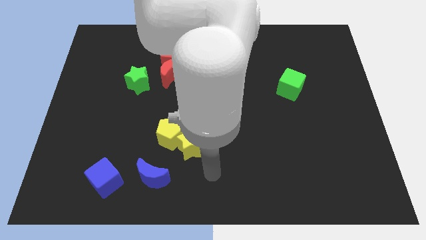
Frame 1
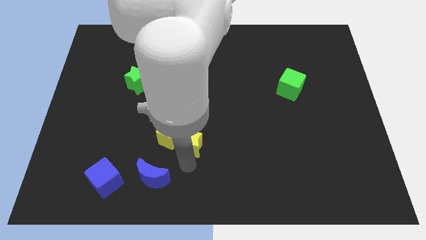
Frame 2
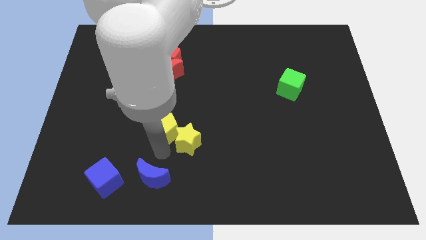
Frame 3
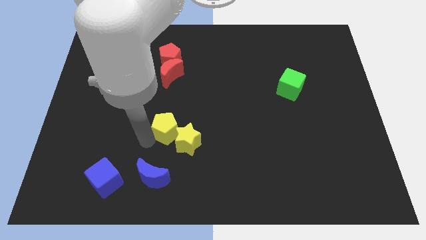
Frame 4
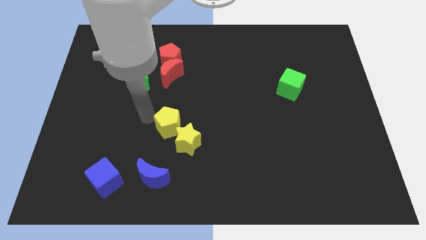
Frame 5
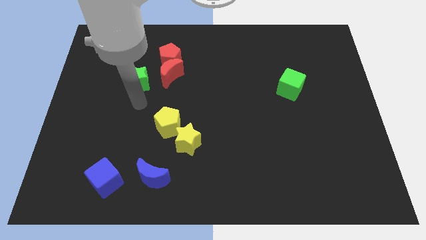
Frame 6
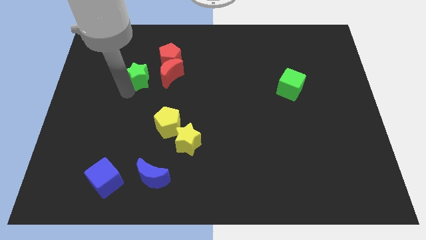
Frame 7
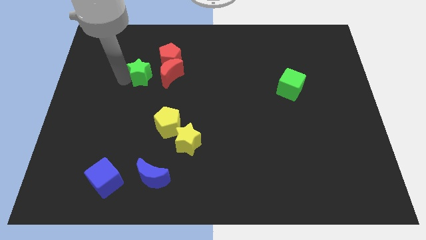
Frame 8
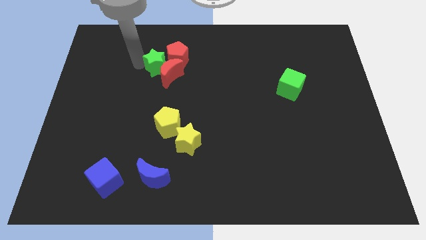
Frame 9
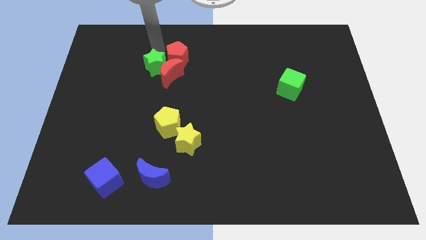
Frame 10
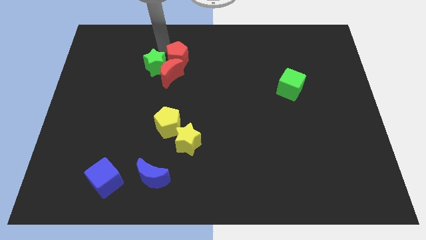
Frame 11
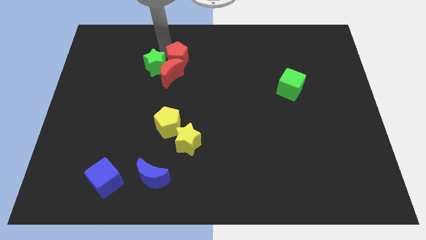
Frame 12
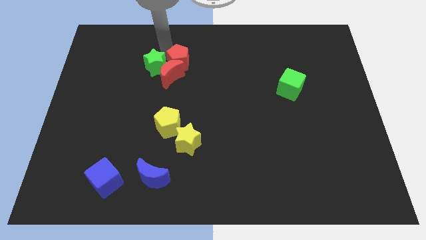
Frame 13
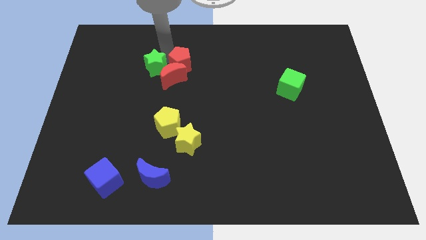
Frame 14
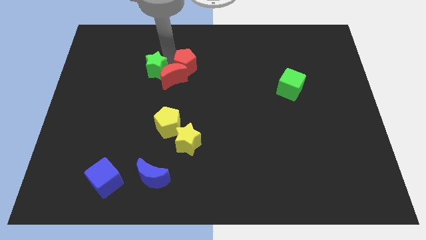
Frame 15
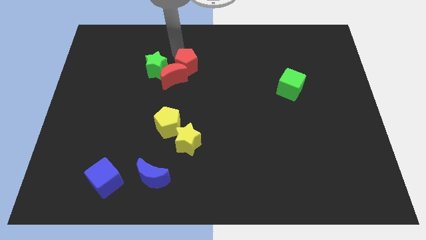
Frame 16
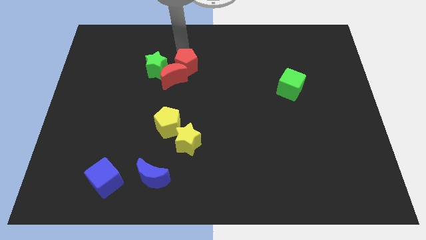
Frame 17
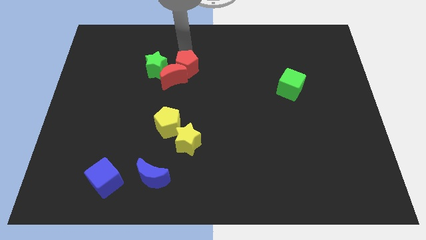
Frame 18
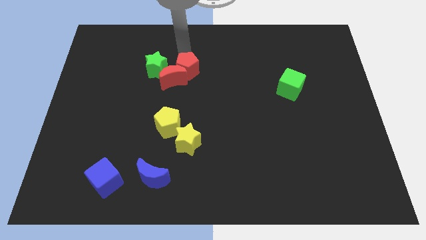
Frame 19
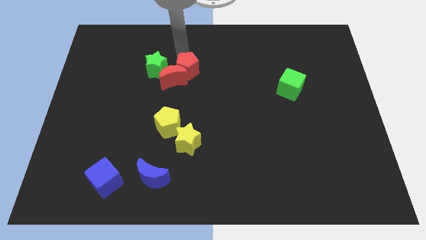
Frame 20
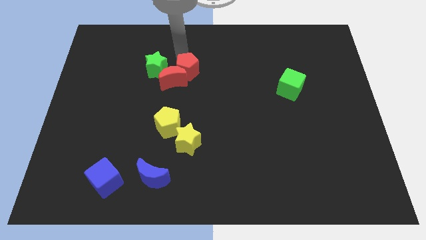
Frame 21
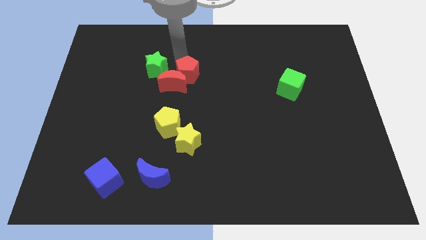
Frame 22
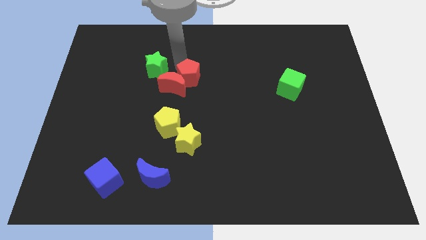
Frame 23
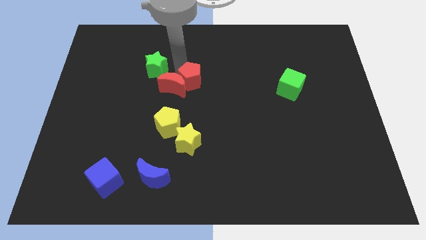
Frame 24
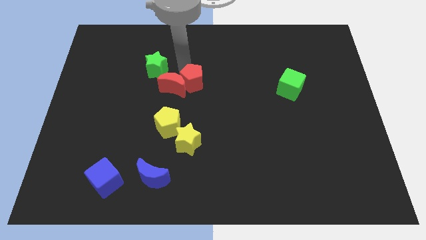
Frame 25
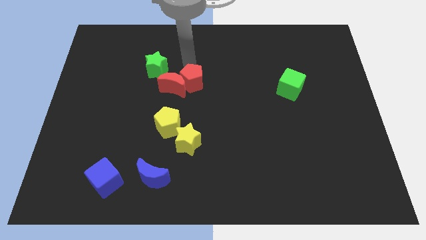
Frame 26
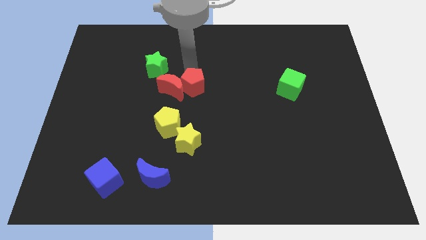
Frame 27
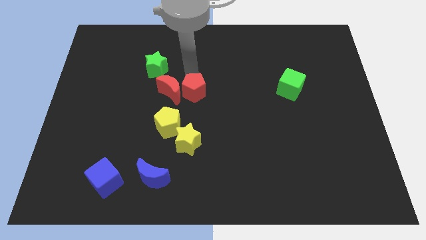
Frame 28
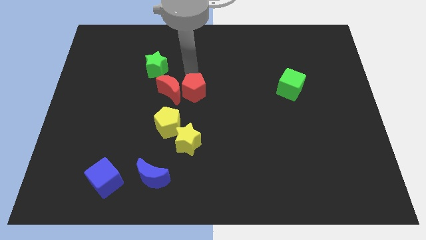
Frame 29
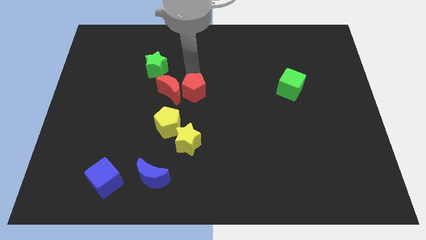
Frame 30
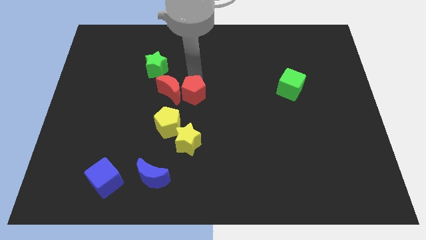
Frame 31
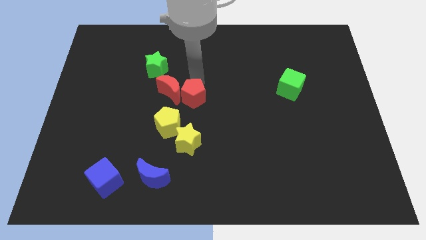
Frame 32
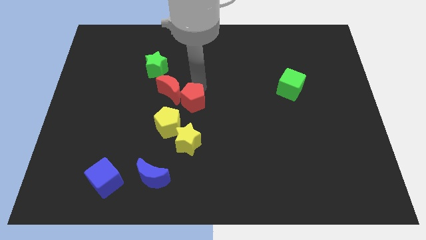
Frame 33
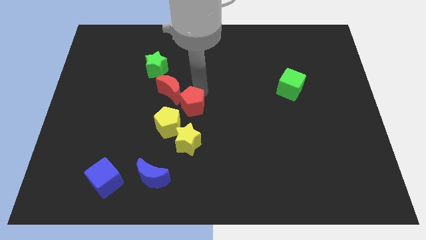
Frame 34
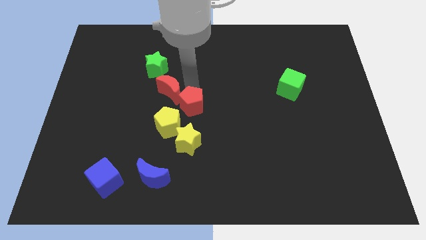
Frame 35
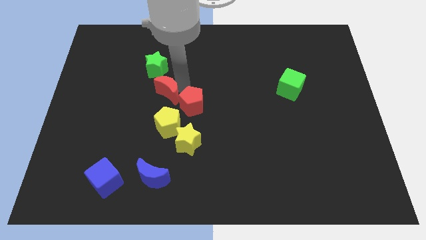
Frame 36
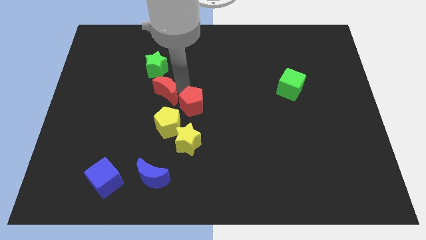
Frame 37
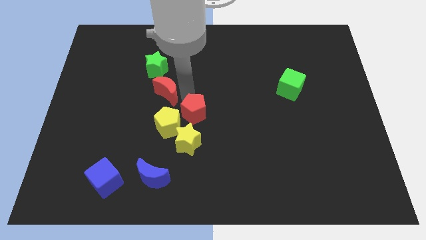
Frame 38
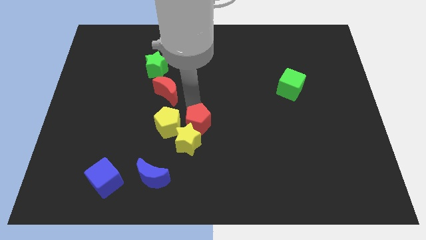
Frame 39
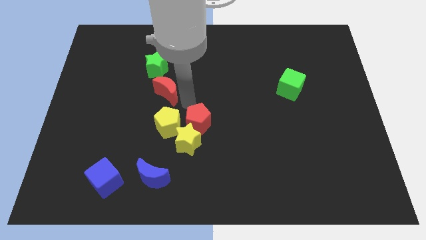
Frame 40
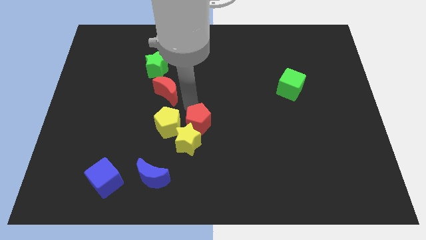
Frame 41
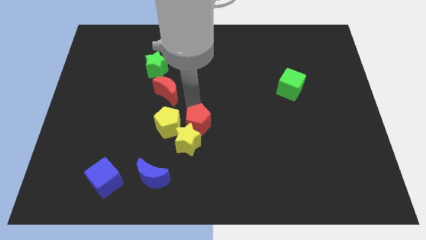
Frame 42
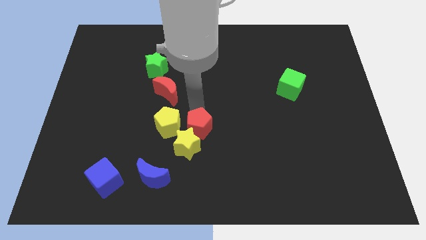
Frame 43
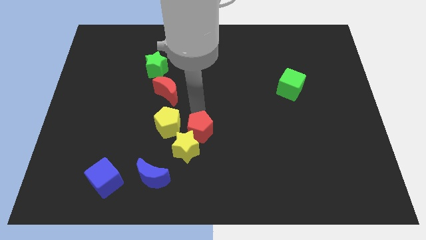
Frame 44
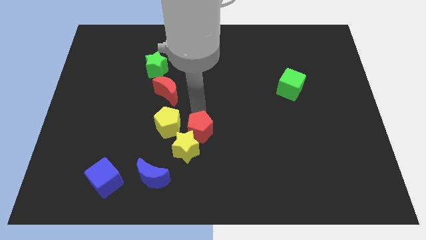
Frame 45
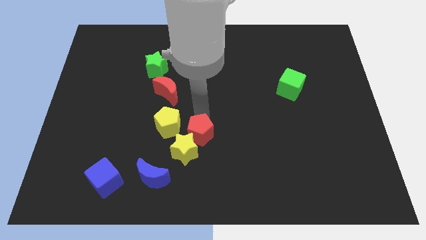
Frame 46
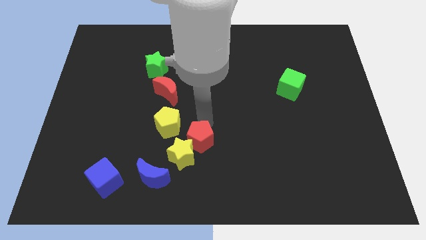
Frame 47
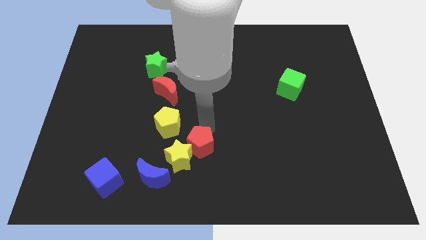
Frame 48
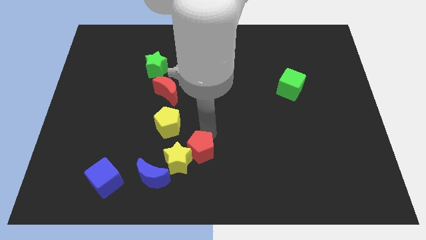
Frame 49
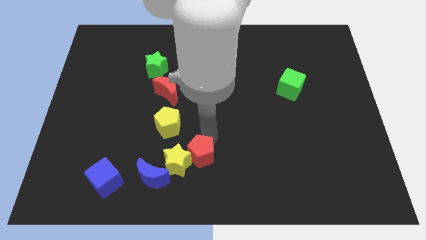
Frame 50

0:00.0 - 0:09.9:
push the red pentagon to the bottom

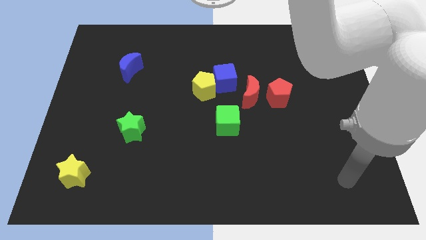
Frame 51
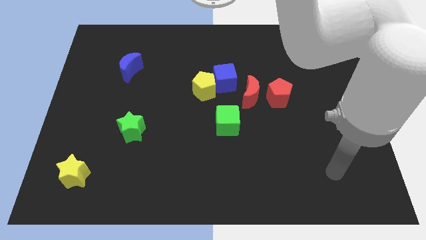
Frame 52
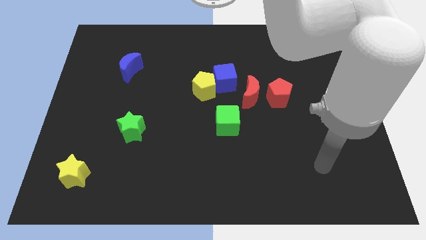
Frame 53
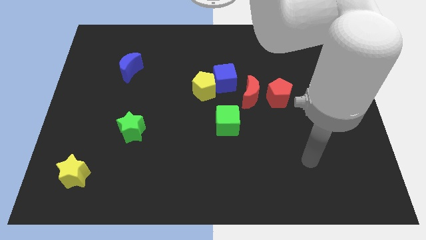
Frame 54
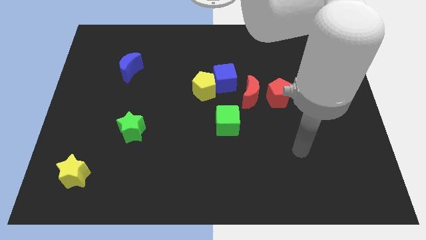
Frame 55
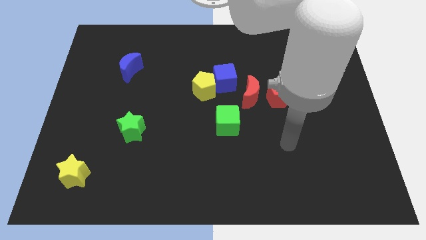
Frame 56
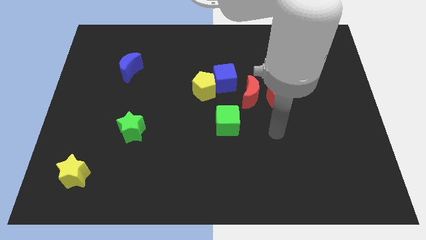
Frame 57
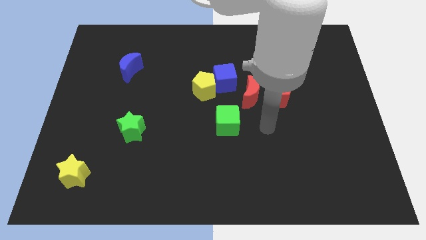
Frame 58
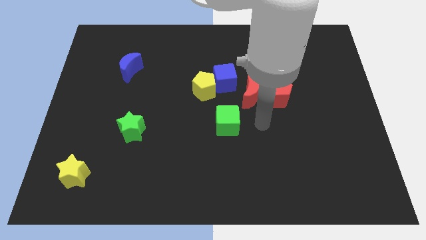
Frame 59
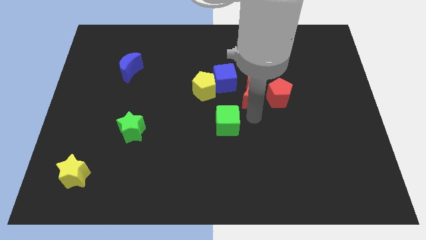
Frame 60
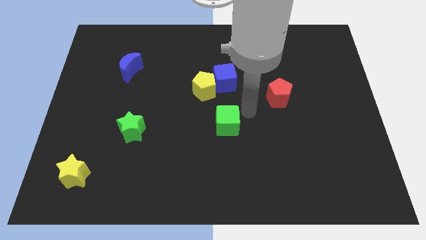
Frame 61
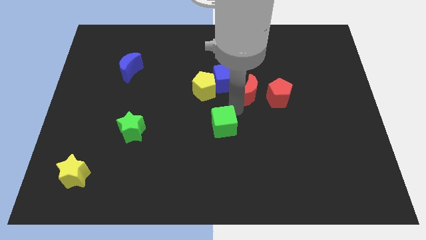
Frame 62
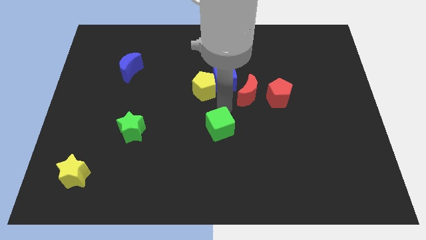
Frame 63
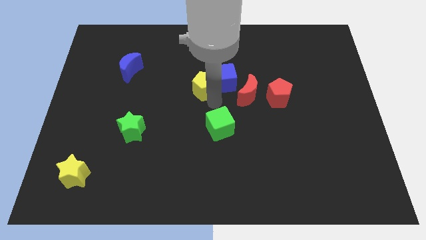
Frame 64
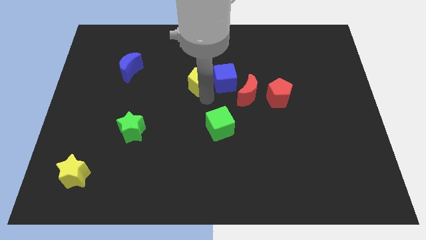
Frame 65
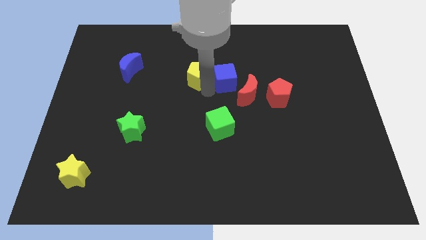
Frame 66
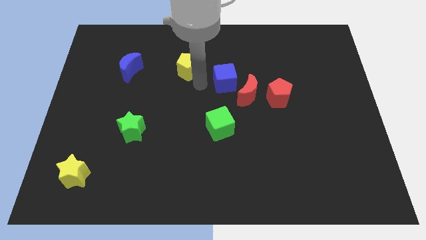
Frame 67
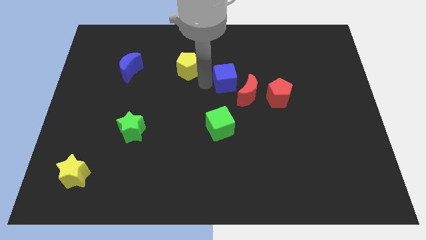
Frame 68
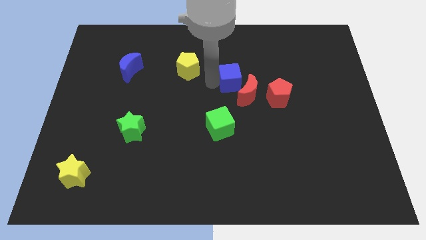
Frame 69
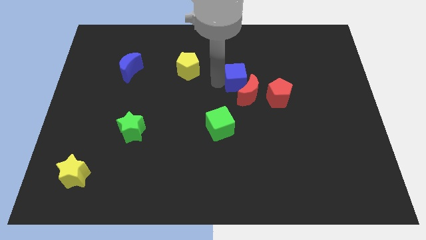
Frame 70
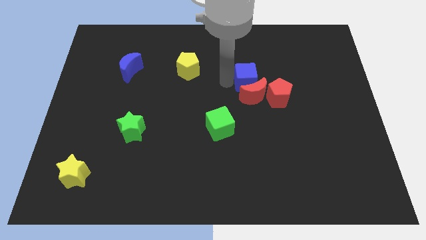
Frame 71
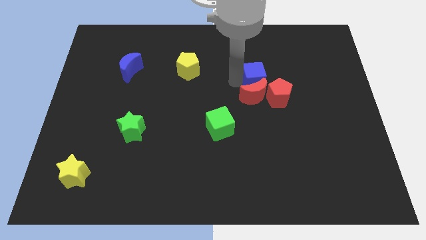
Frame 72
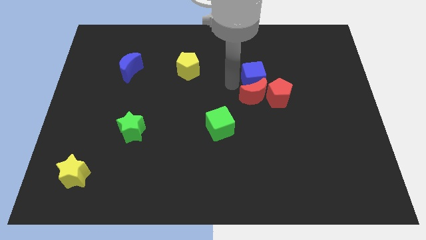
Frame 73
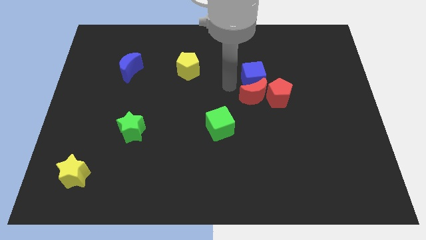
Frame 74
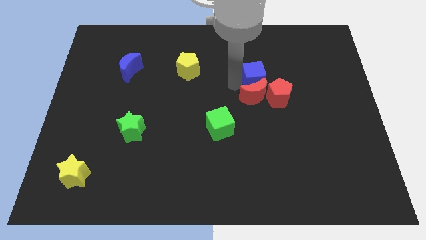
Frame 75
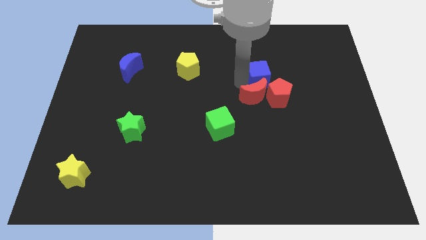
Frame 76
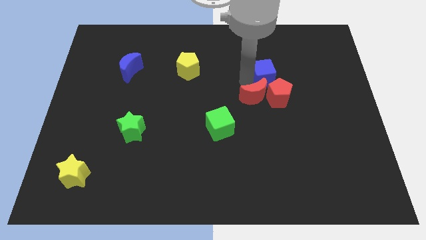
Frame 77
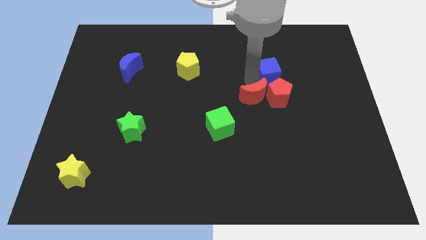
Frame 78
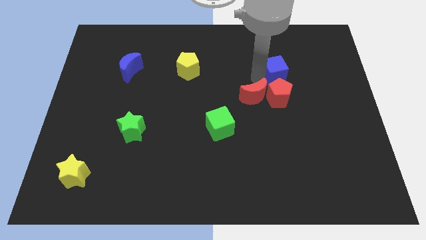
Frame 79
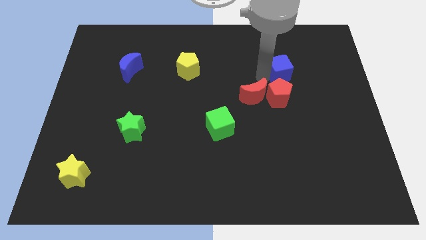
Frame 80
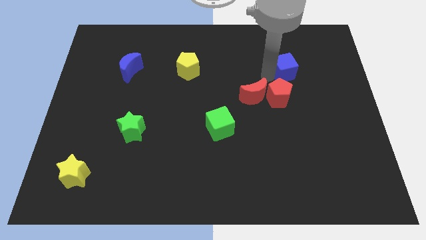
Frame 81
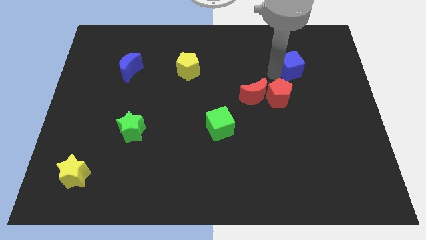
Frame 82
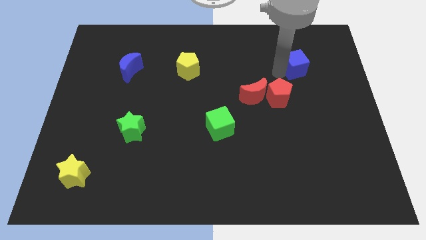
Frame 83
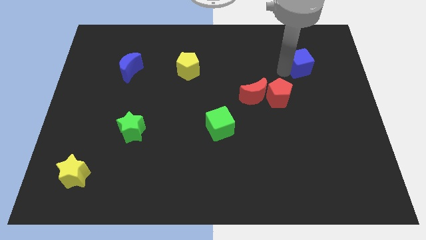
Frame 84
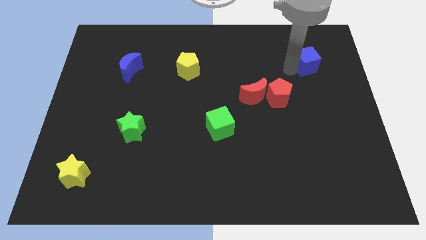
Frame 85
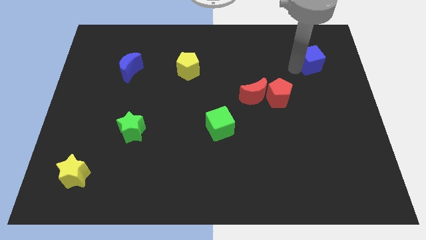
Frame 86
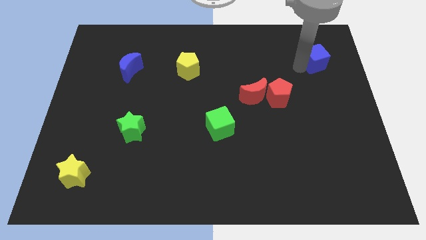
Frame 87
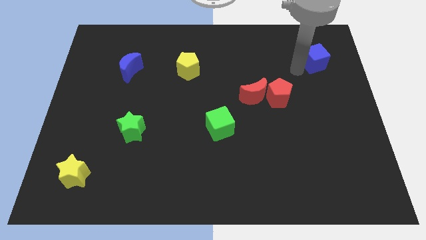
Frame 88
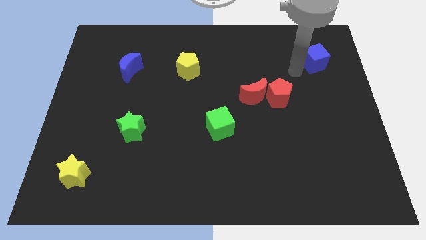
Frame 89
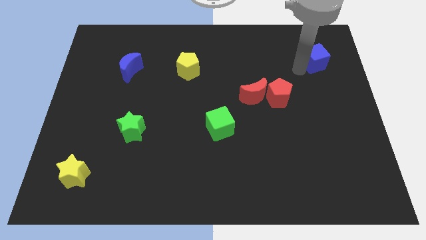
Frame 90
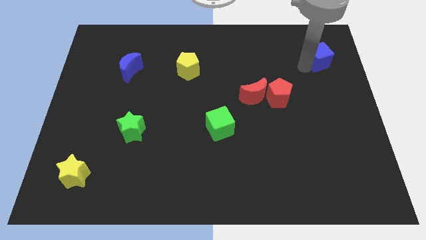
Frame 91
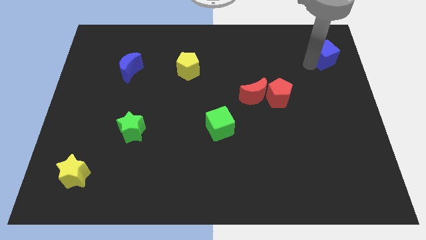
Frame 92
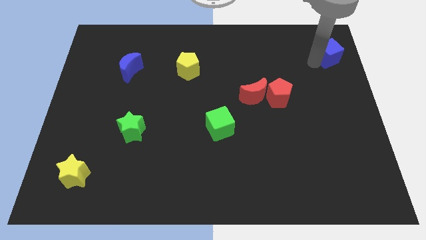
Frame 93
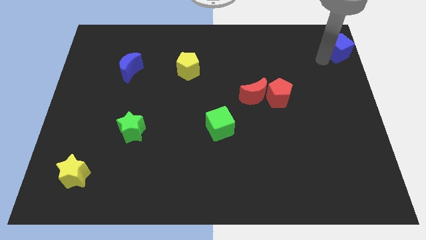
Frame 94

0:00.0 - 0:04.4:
slide the blue cube to the top right of the board
